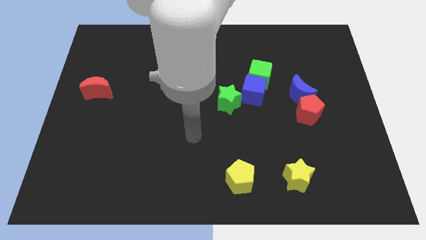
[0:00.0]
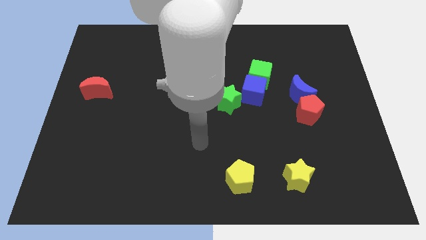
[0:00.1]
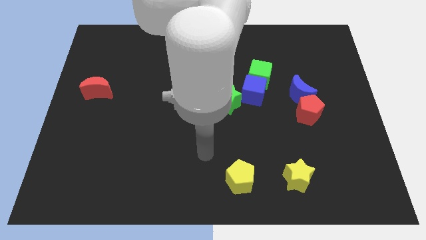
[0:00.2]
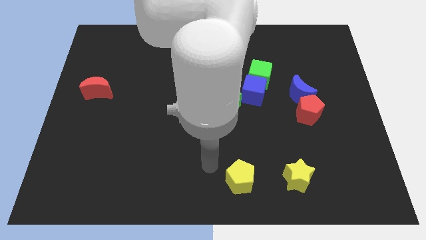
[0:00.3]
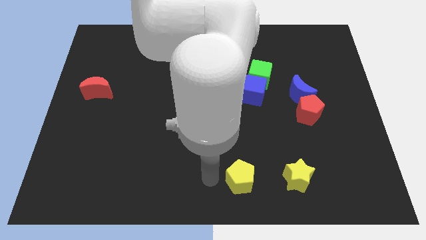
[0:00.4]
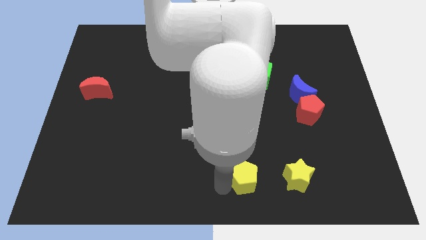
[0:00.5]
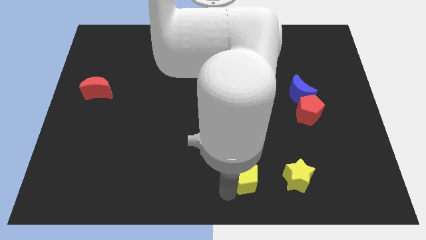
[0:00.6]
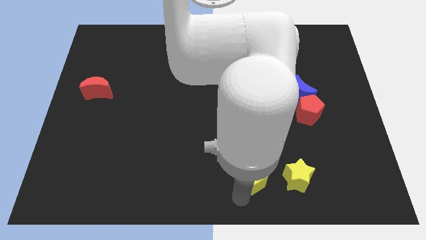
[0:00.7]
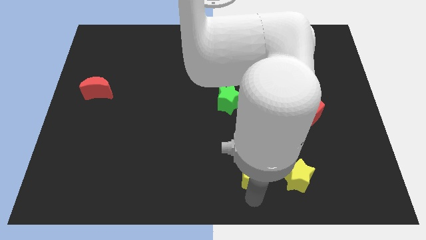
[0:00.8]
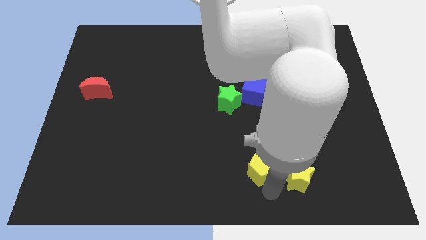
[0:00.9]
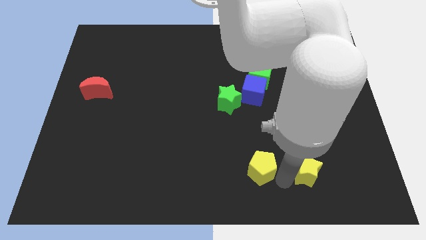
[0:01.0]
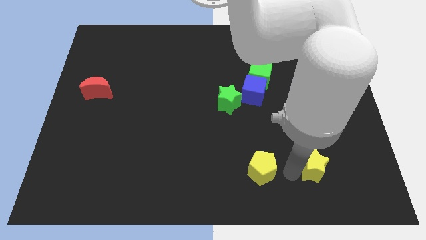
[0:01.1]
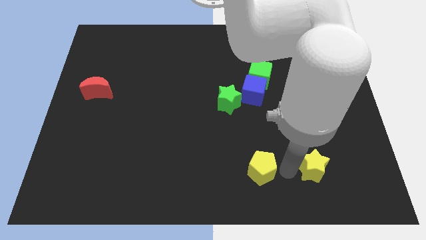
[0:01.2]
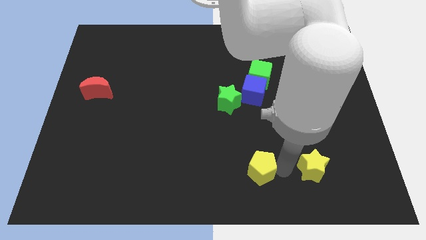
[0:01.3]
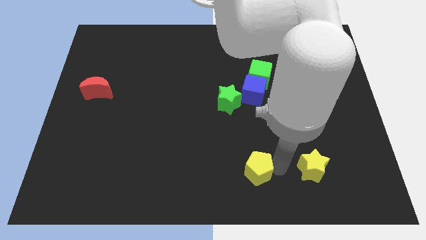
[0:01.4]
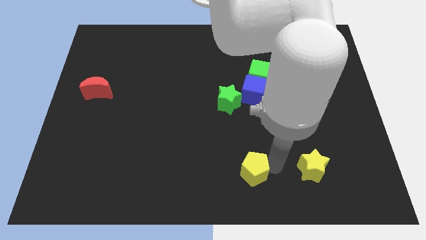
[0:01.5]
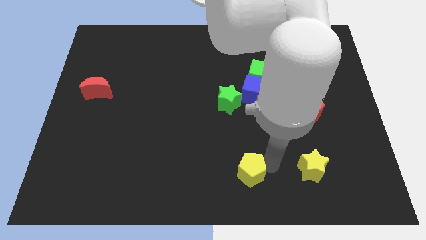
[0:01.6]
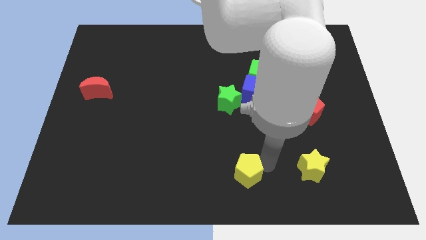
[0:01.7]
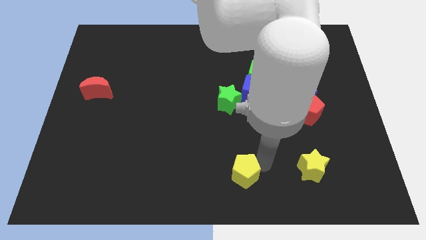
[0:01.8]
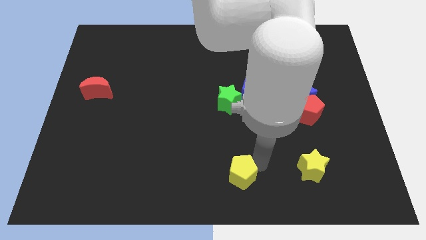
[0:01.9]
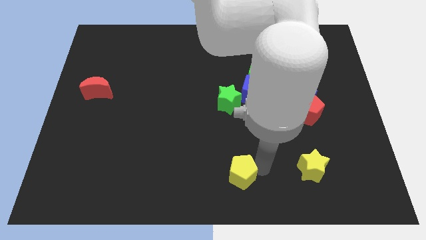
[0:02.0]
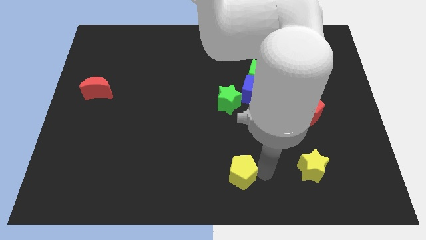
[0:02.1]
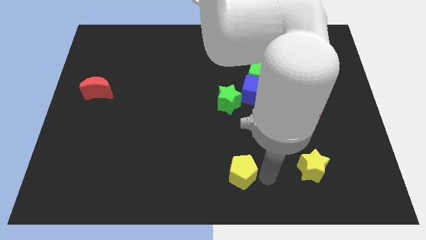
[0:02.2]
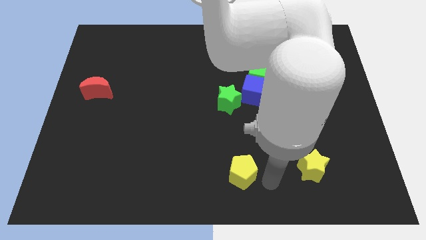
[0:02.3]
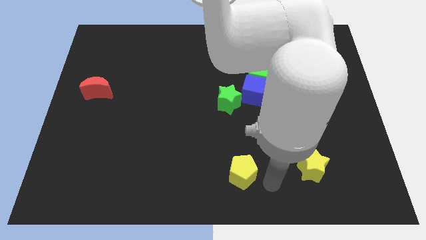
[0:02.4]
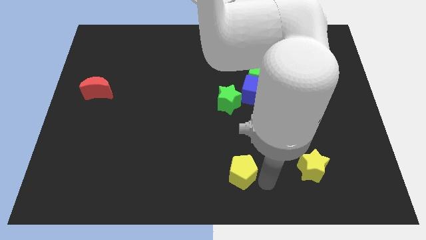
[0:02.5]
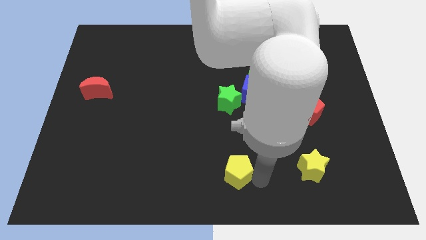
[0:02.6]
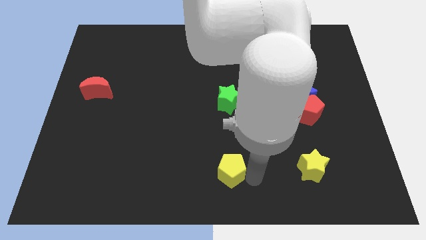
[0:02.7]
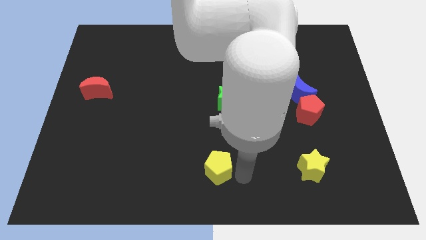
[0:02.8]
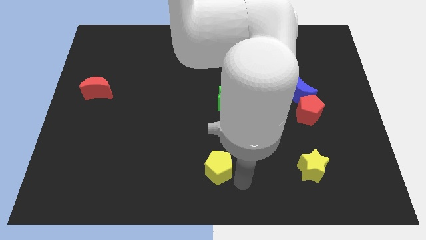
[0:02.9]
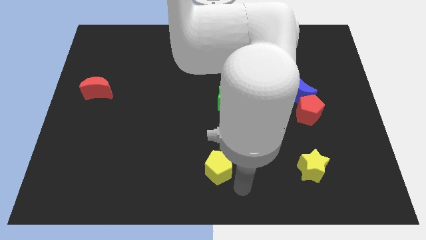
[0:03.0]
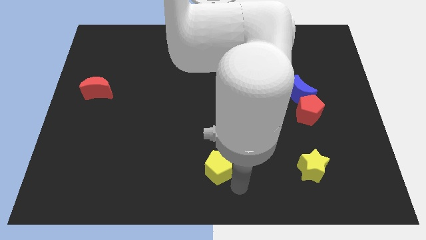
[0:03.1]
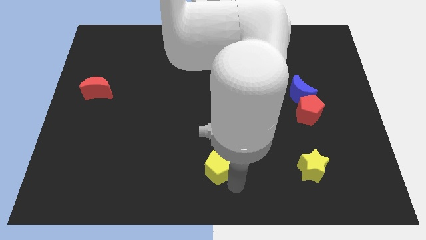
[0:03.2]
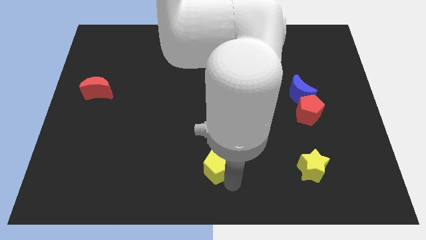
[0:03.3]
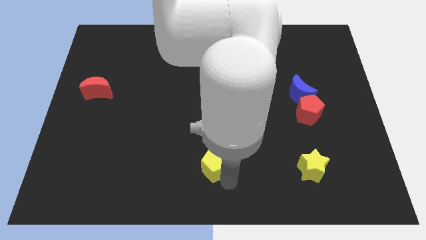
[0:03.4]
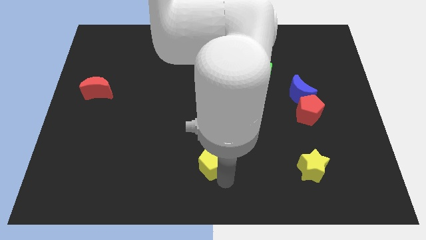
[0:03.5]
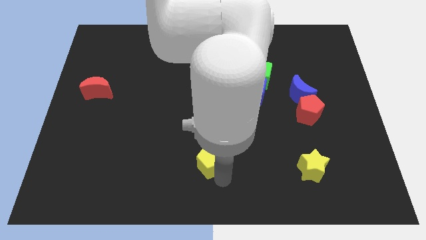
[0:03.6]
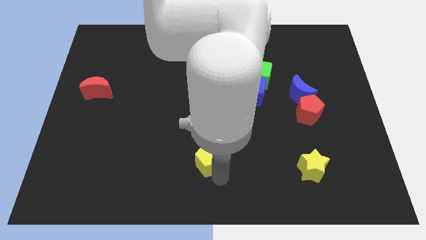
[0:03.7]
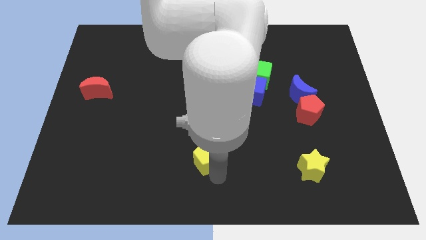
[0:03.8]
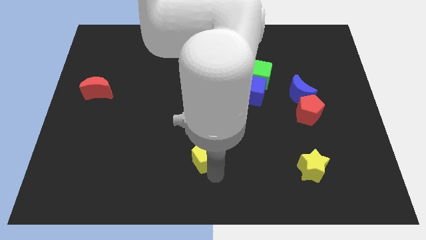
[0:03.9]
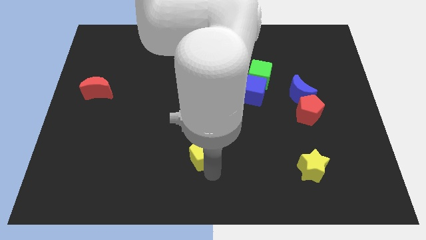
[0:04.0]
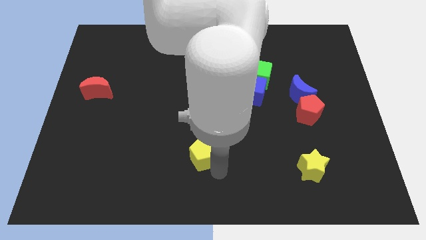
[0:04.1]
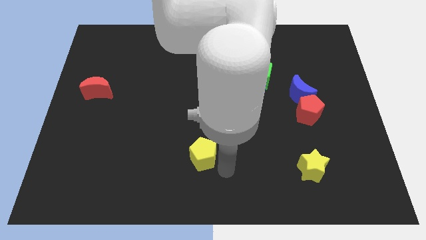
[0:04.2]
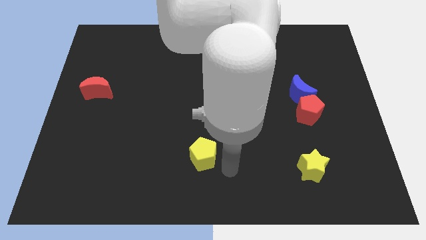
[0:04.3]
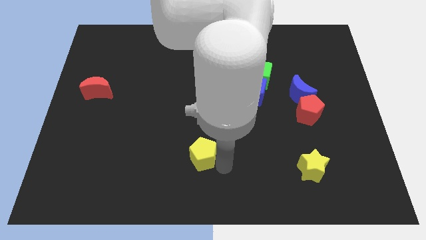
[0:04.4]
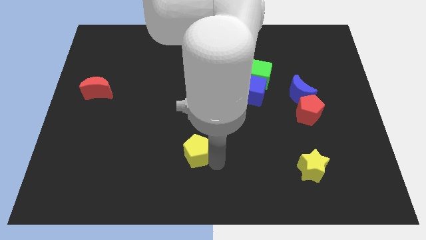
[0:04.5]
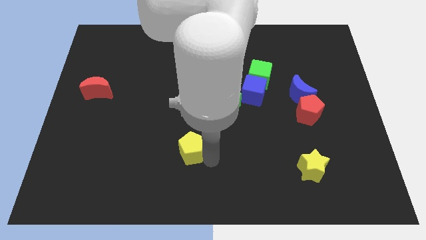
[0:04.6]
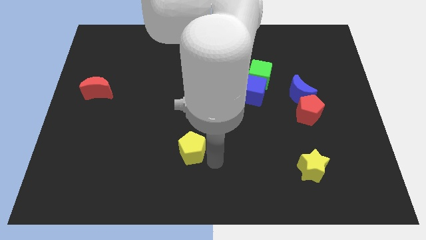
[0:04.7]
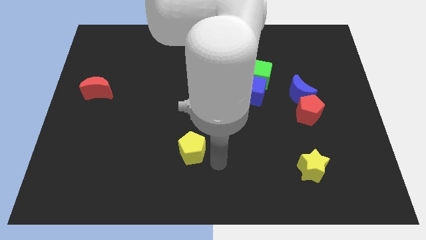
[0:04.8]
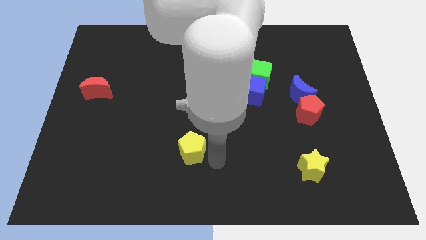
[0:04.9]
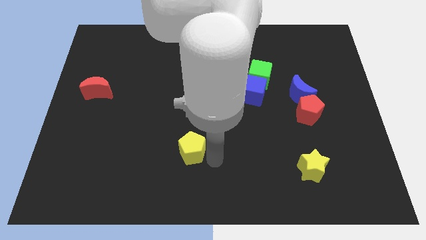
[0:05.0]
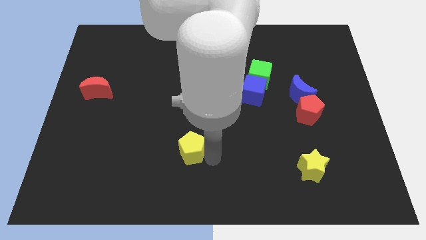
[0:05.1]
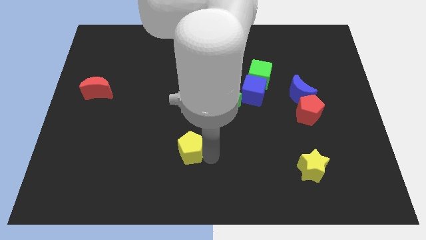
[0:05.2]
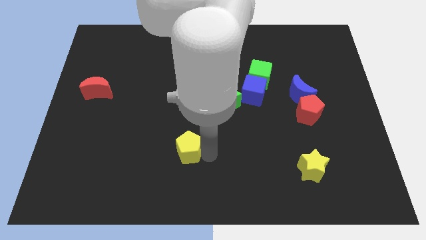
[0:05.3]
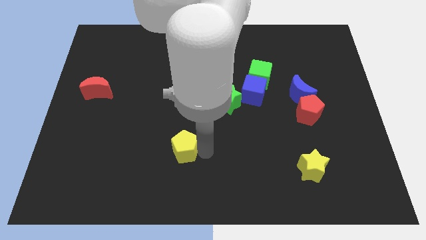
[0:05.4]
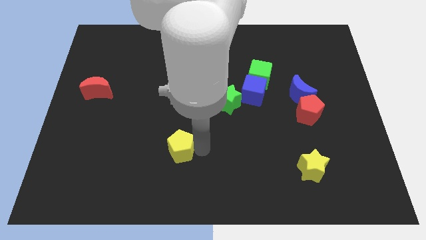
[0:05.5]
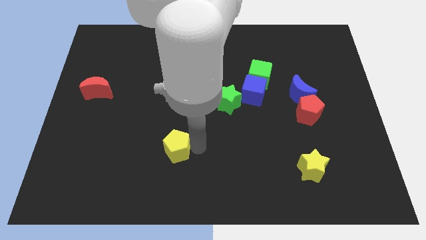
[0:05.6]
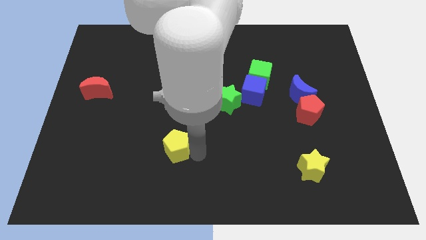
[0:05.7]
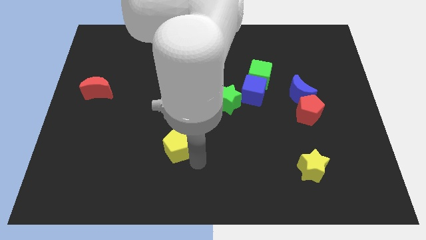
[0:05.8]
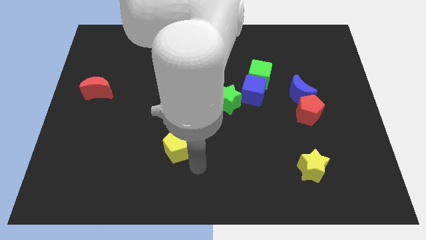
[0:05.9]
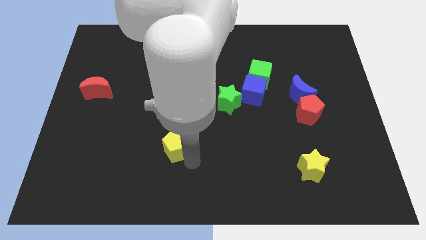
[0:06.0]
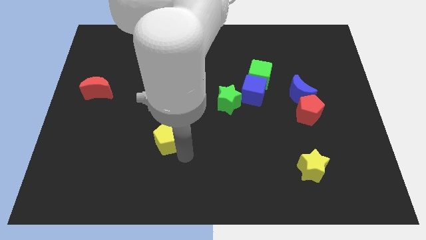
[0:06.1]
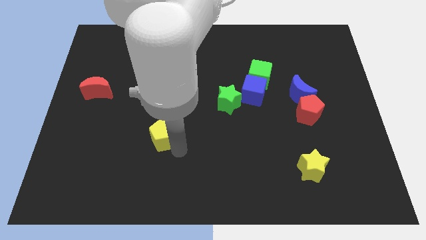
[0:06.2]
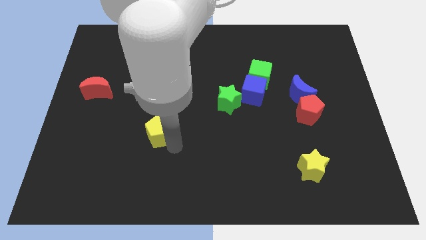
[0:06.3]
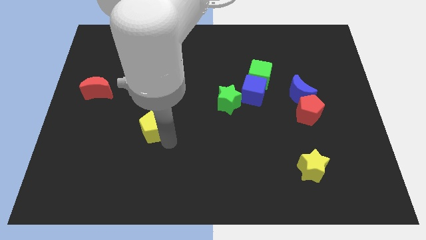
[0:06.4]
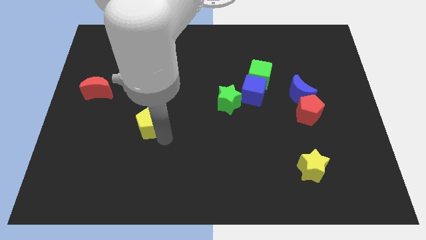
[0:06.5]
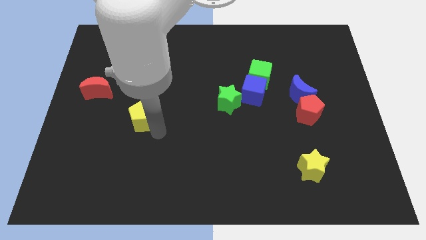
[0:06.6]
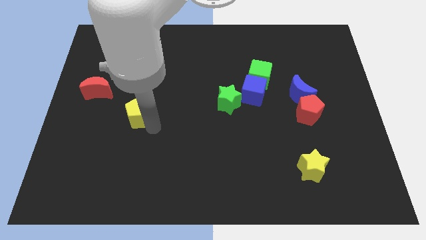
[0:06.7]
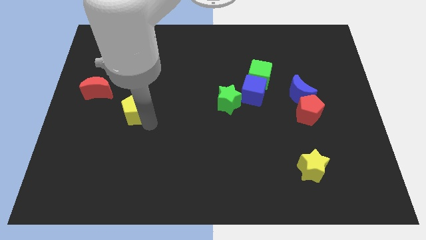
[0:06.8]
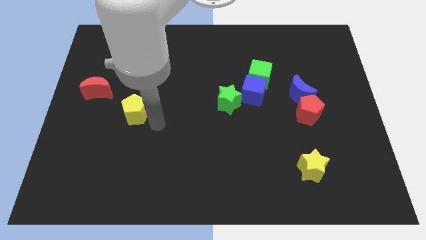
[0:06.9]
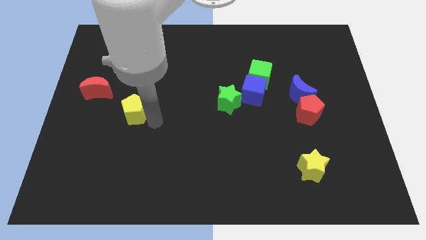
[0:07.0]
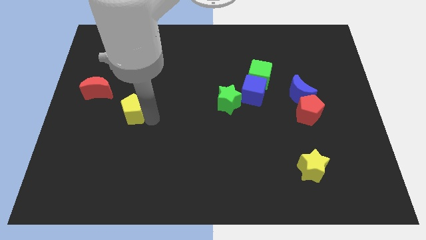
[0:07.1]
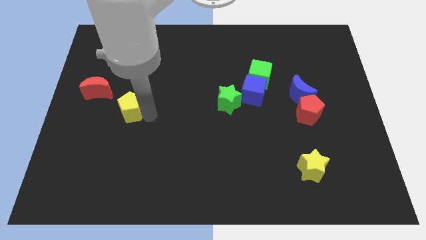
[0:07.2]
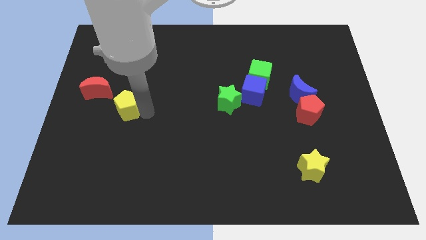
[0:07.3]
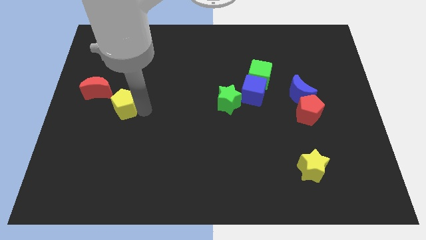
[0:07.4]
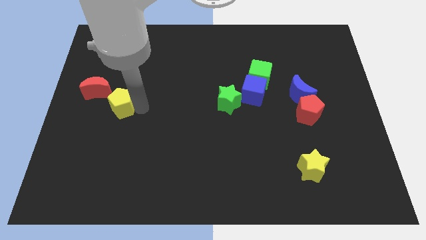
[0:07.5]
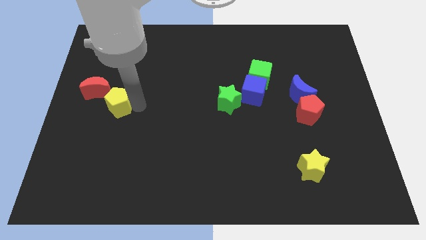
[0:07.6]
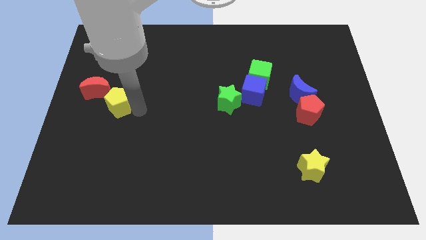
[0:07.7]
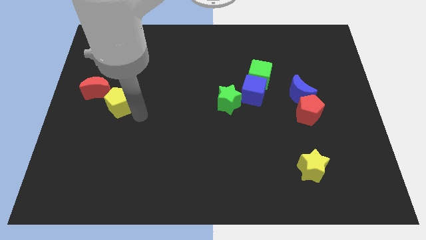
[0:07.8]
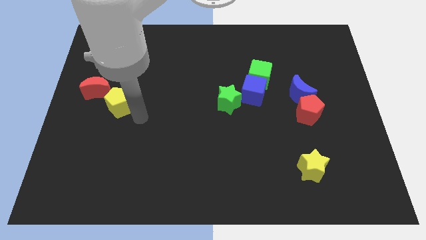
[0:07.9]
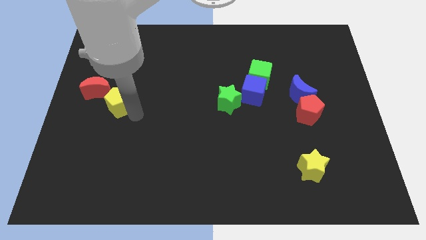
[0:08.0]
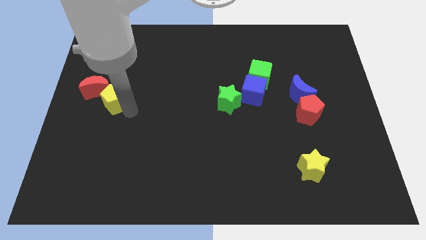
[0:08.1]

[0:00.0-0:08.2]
move the yellow pentagon to the red moon
